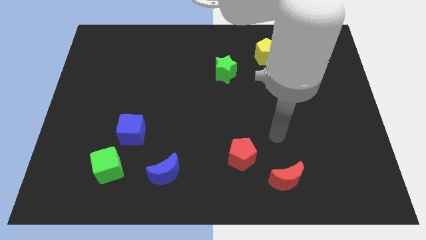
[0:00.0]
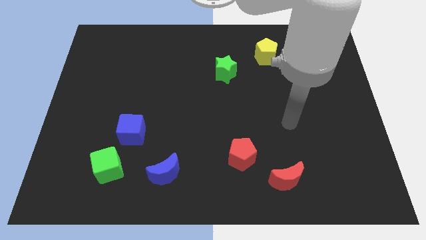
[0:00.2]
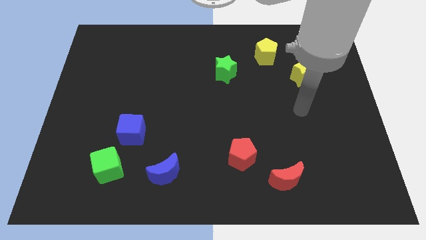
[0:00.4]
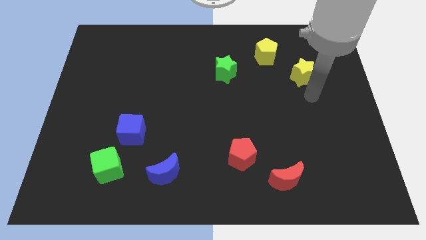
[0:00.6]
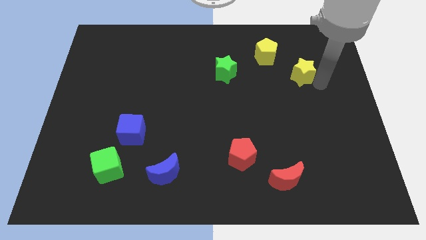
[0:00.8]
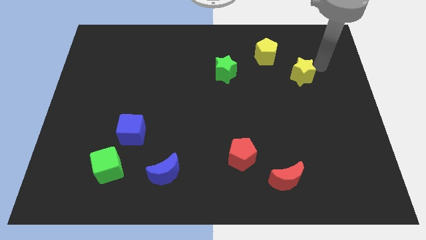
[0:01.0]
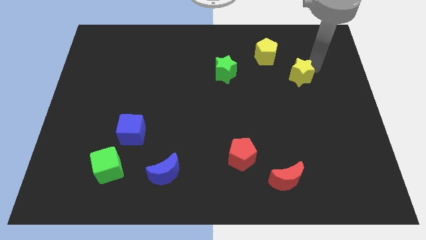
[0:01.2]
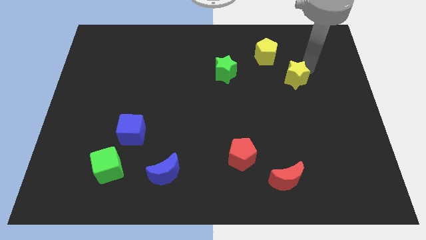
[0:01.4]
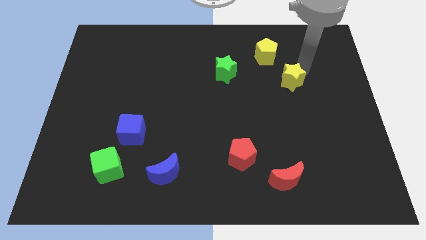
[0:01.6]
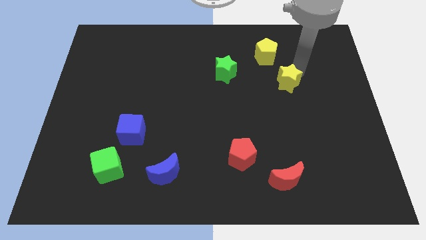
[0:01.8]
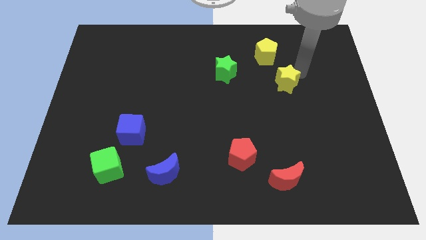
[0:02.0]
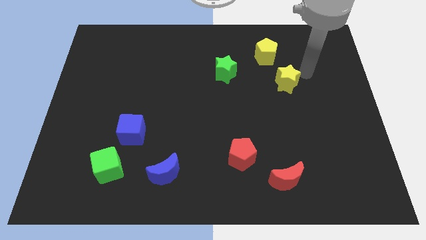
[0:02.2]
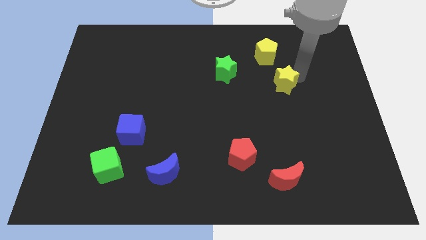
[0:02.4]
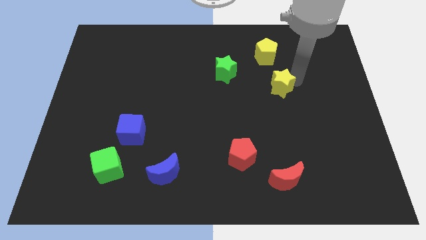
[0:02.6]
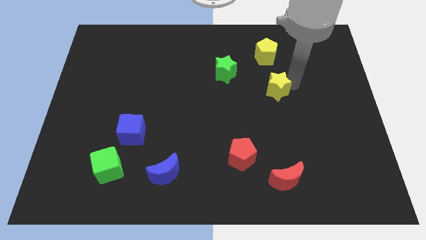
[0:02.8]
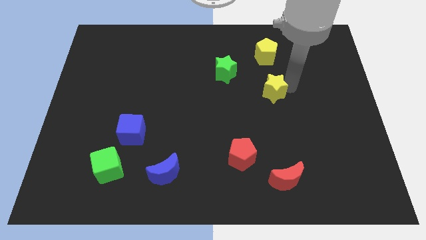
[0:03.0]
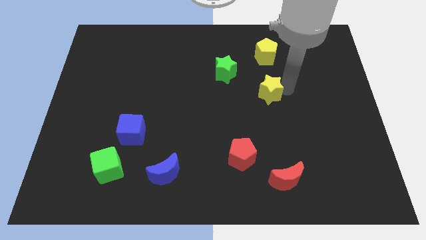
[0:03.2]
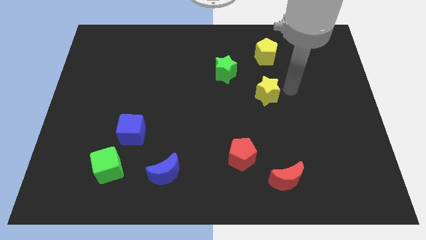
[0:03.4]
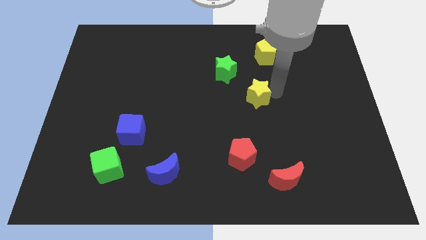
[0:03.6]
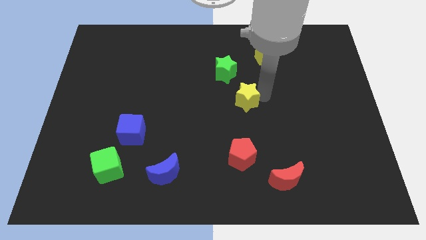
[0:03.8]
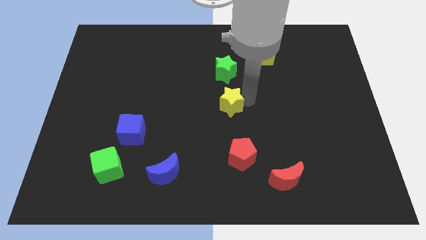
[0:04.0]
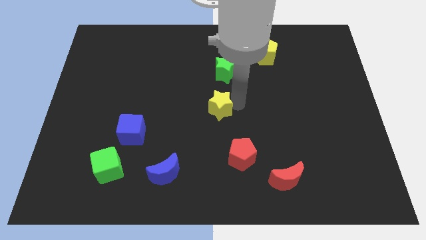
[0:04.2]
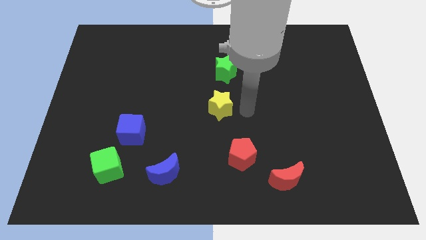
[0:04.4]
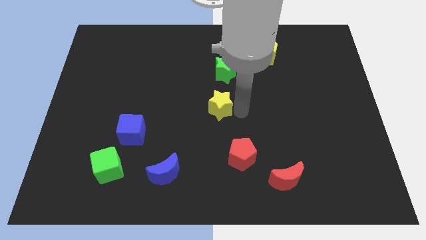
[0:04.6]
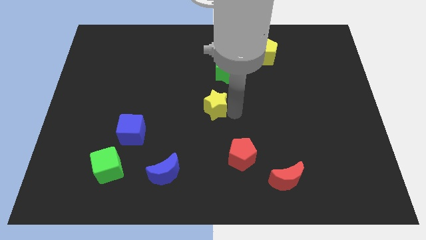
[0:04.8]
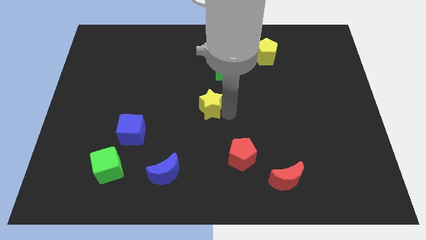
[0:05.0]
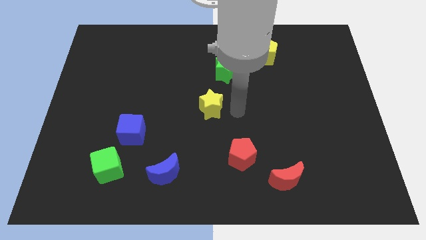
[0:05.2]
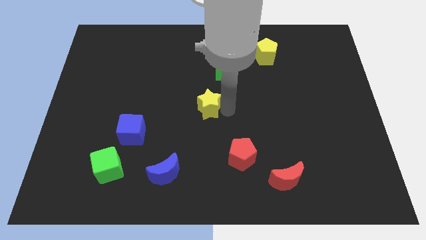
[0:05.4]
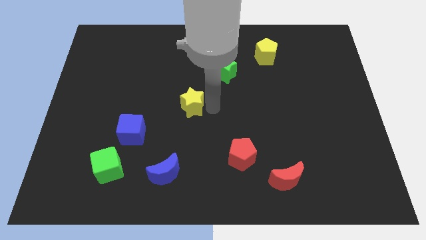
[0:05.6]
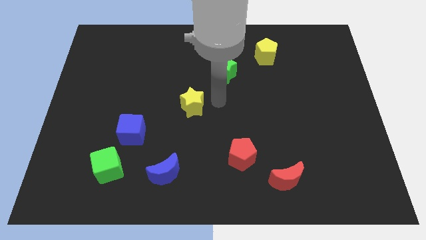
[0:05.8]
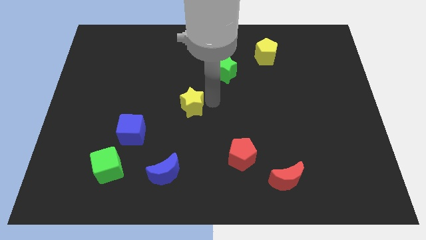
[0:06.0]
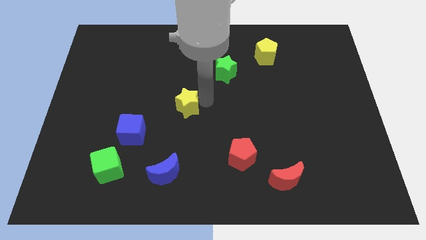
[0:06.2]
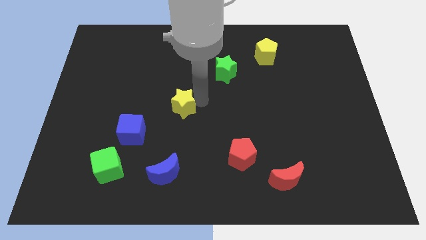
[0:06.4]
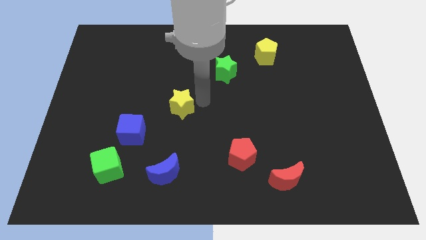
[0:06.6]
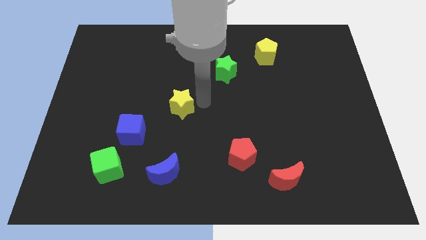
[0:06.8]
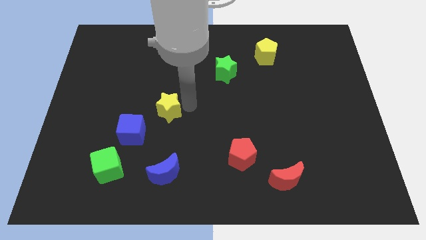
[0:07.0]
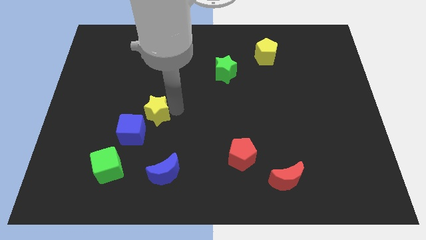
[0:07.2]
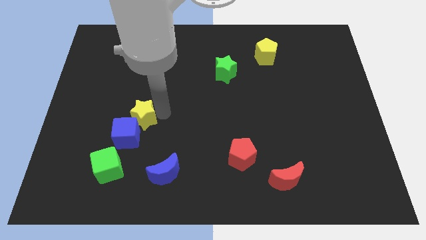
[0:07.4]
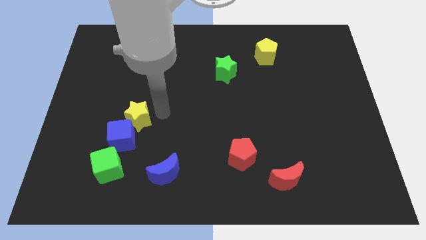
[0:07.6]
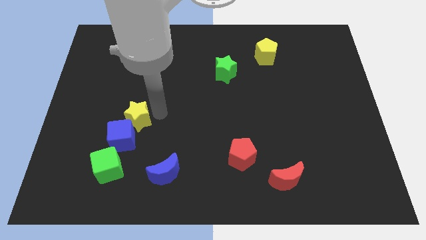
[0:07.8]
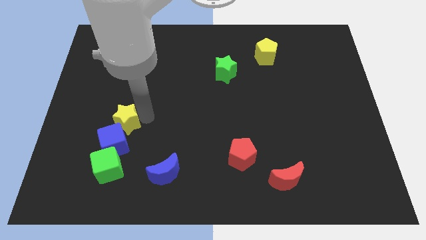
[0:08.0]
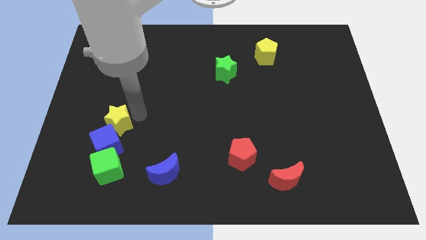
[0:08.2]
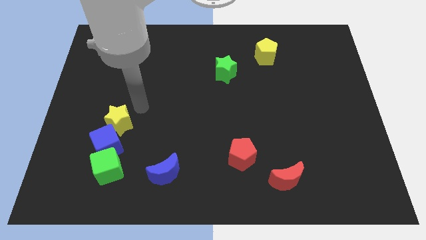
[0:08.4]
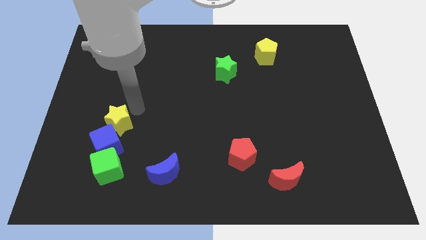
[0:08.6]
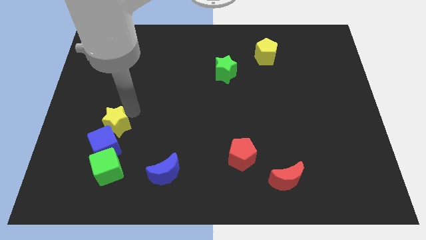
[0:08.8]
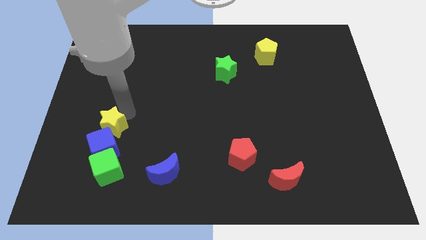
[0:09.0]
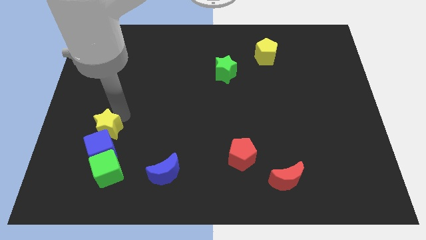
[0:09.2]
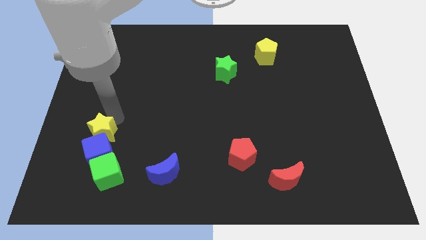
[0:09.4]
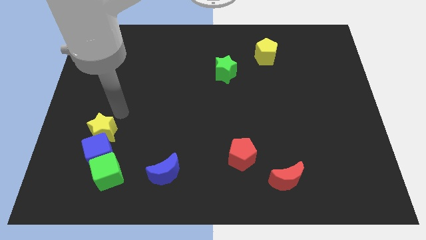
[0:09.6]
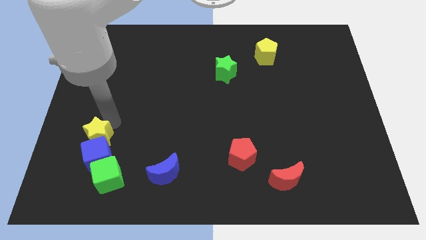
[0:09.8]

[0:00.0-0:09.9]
push the yellow star diagonally up and to the left of the green cube
